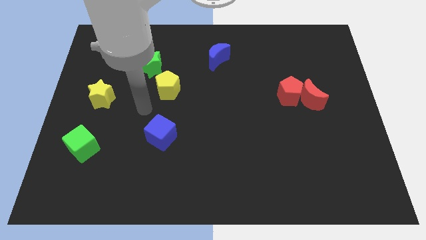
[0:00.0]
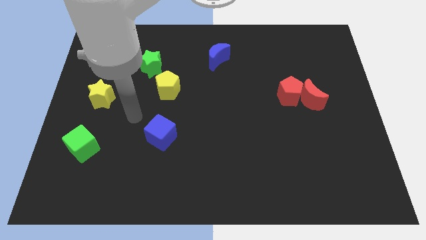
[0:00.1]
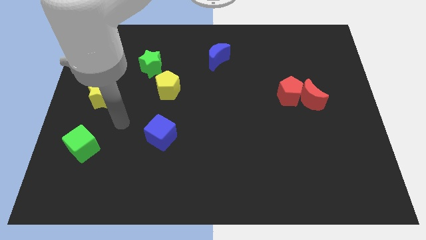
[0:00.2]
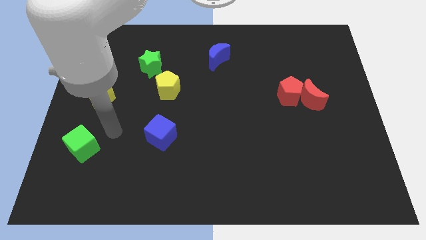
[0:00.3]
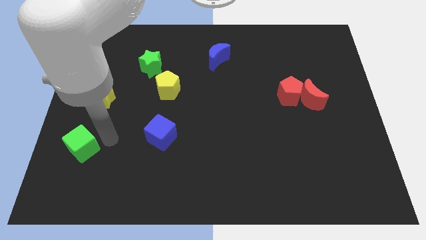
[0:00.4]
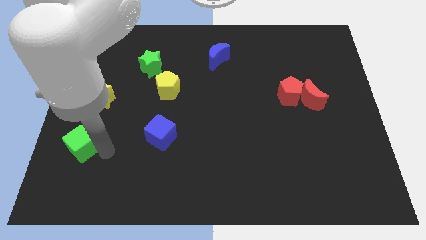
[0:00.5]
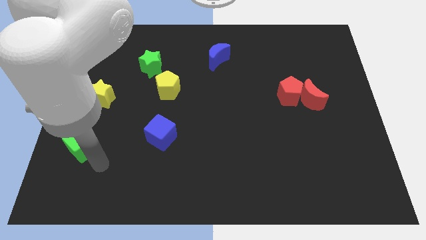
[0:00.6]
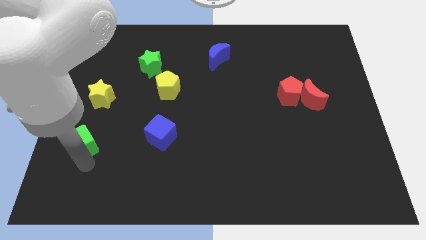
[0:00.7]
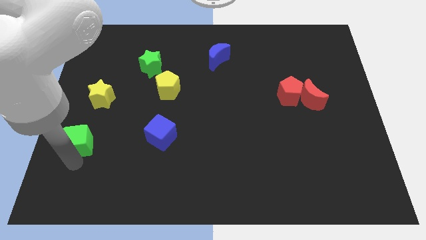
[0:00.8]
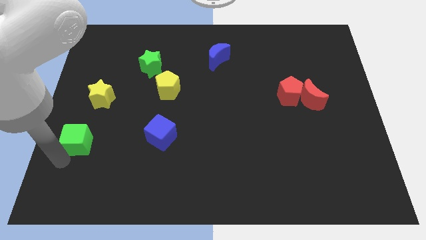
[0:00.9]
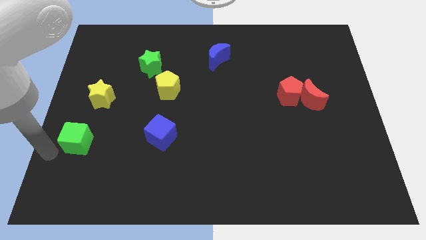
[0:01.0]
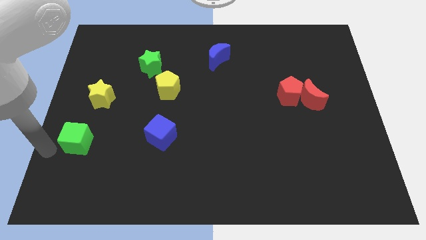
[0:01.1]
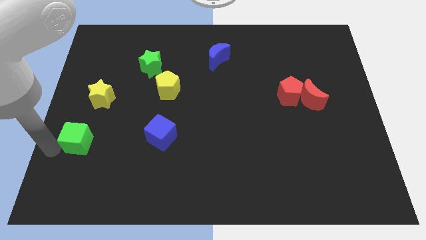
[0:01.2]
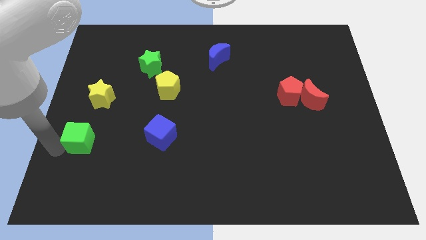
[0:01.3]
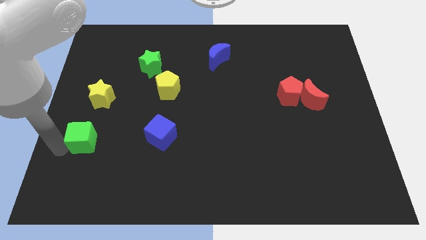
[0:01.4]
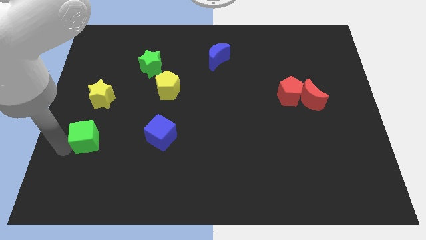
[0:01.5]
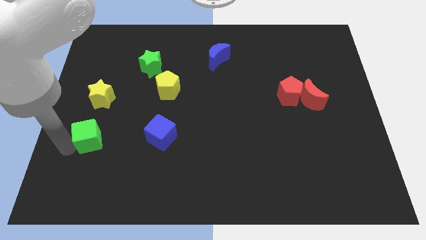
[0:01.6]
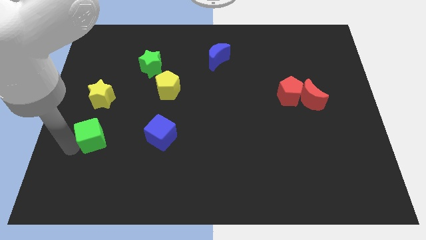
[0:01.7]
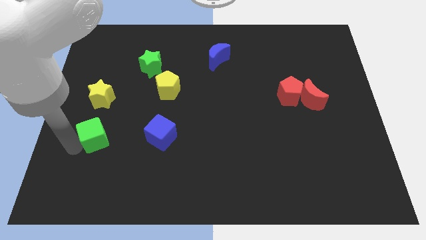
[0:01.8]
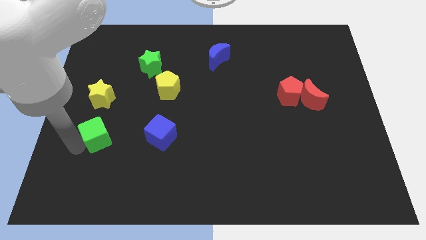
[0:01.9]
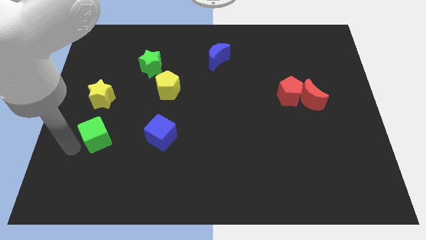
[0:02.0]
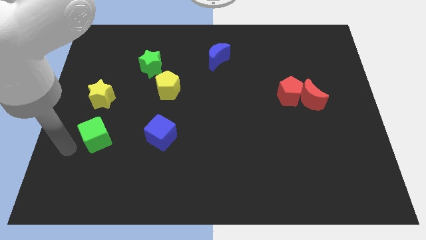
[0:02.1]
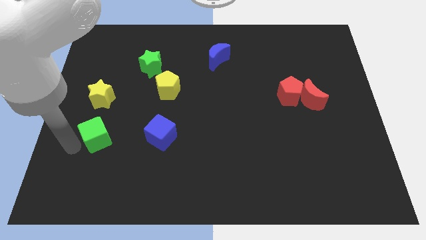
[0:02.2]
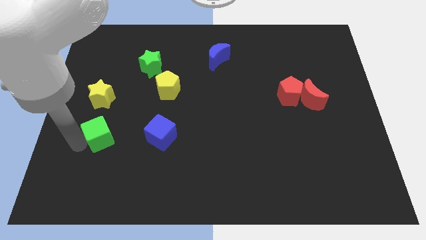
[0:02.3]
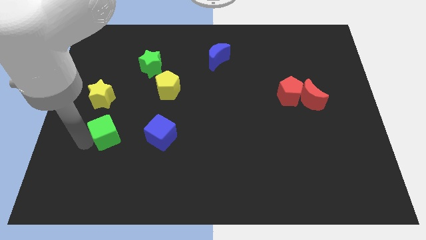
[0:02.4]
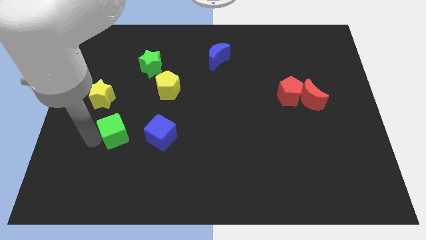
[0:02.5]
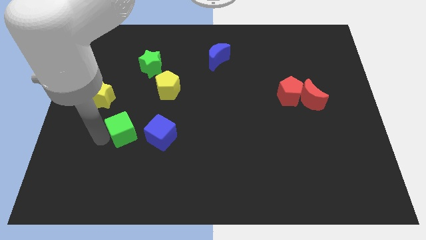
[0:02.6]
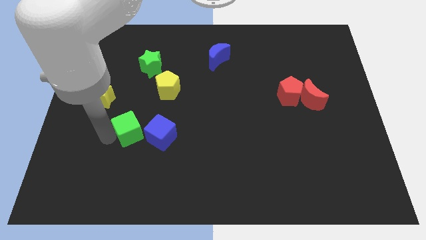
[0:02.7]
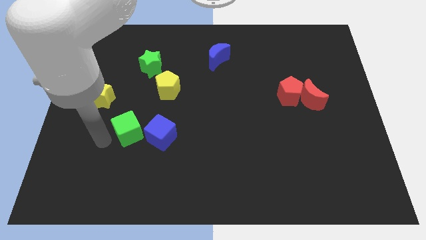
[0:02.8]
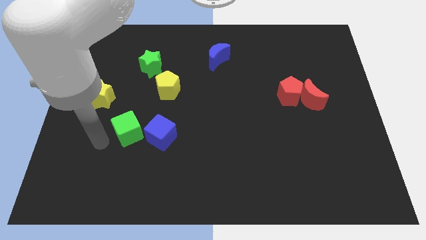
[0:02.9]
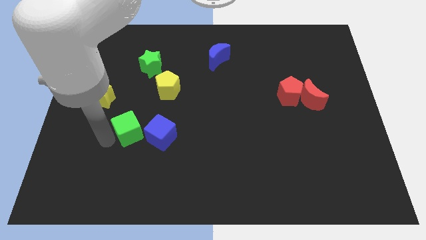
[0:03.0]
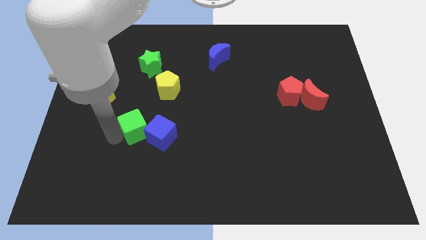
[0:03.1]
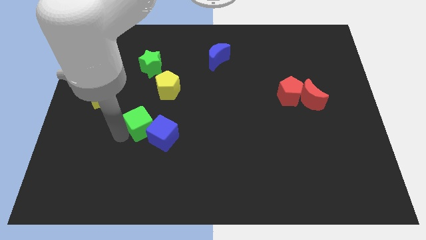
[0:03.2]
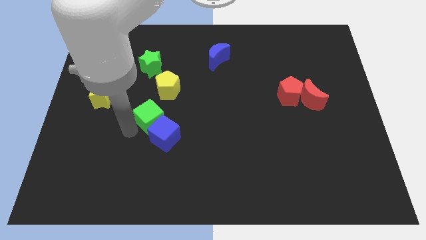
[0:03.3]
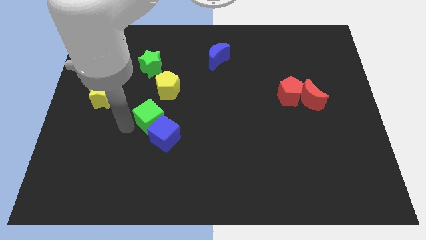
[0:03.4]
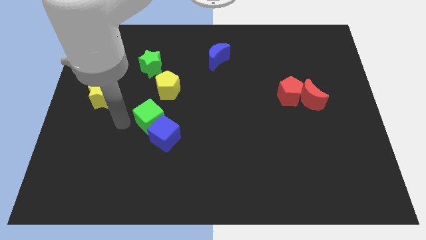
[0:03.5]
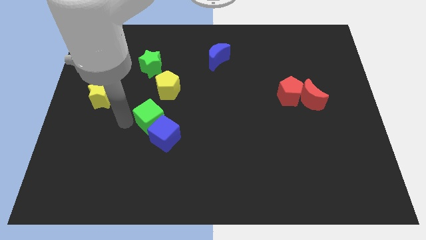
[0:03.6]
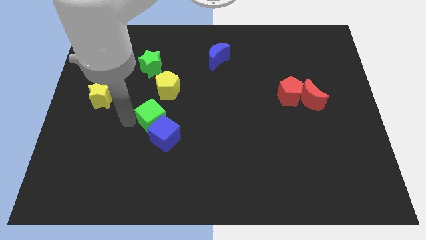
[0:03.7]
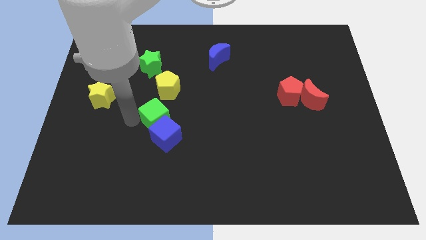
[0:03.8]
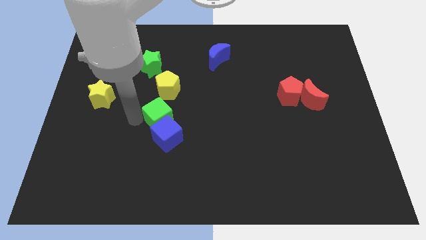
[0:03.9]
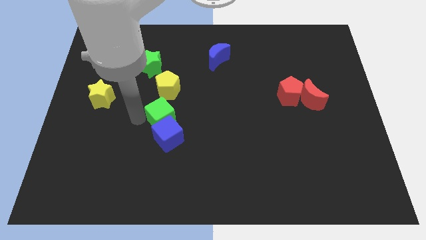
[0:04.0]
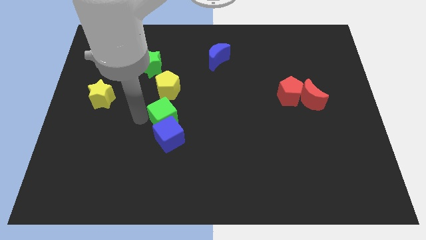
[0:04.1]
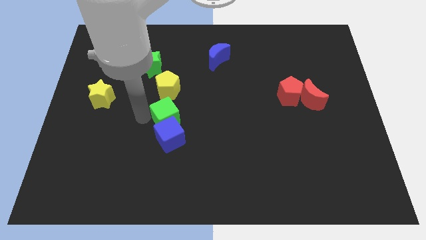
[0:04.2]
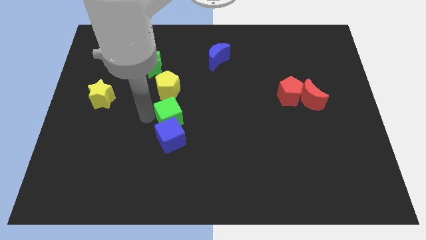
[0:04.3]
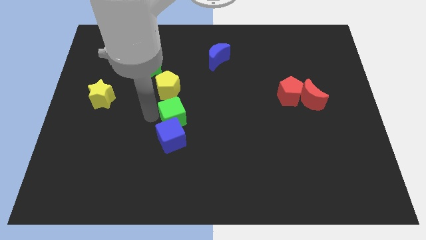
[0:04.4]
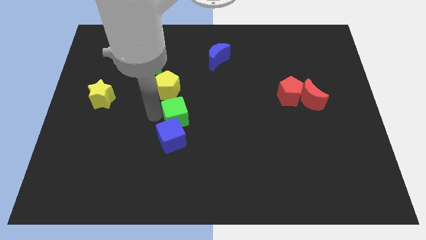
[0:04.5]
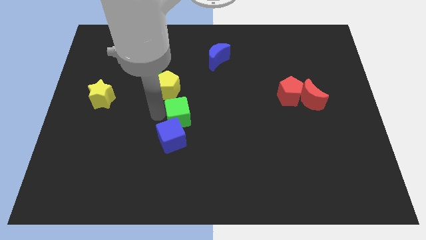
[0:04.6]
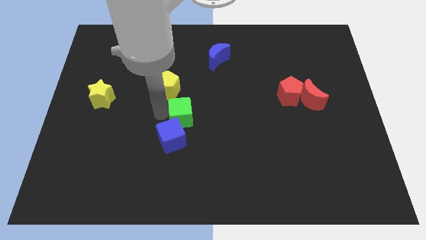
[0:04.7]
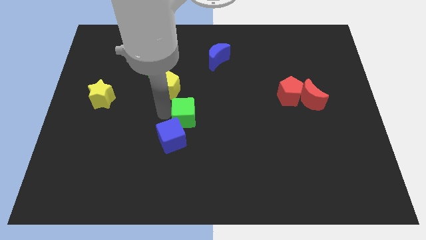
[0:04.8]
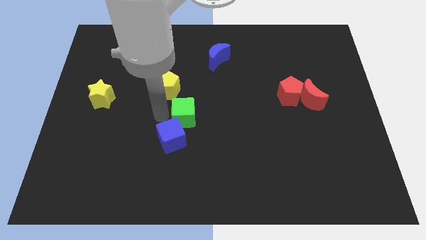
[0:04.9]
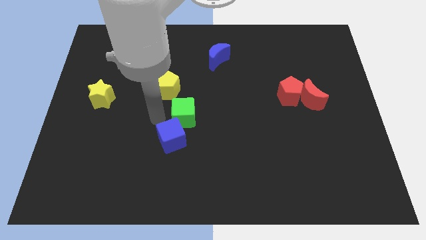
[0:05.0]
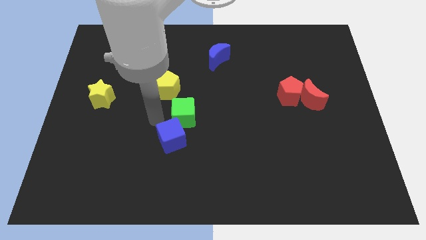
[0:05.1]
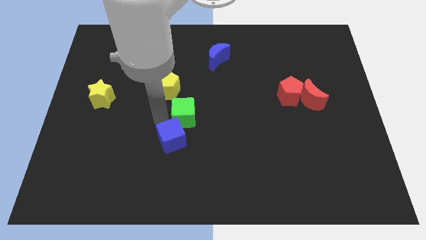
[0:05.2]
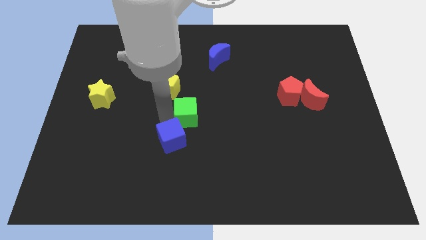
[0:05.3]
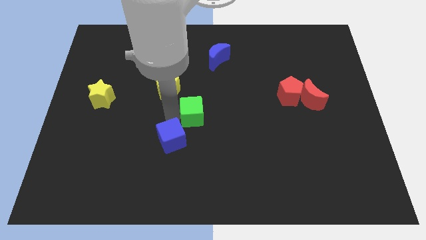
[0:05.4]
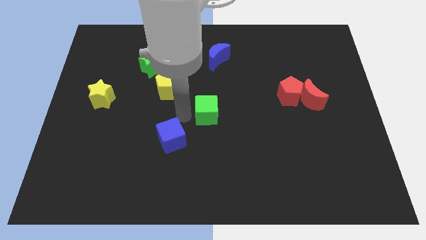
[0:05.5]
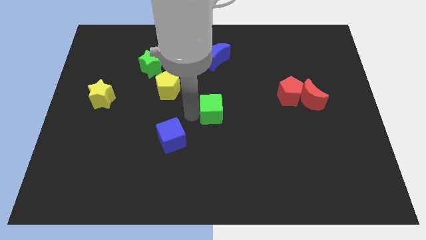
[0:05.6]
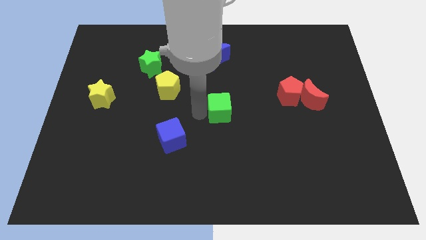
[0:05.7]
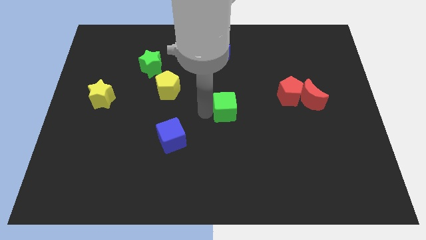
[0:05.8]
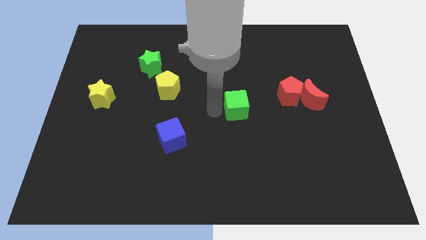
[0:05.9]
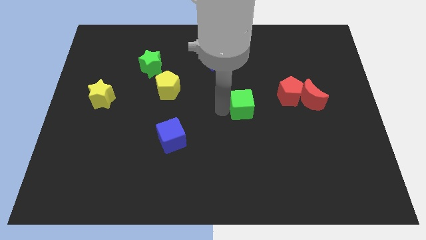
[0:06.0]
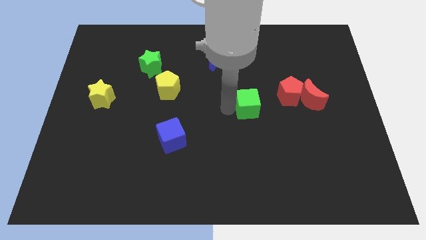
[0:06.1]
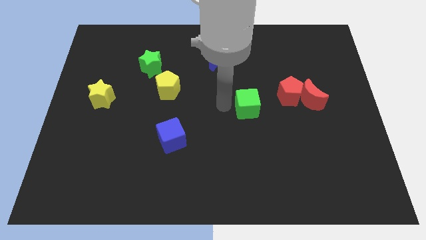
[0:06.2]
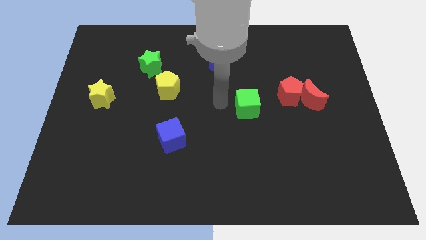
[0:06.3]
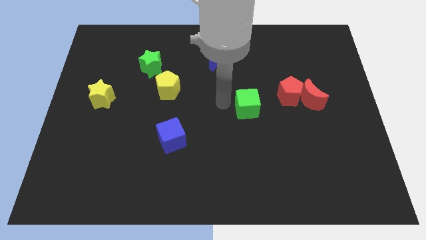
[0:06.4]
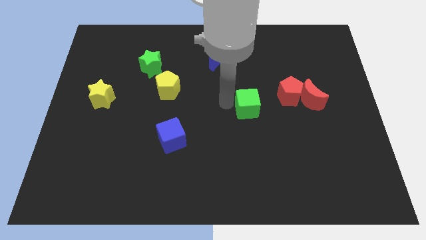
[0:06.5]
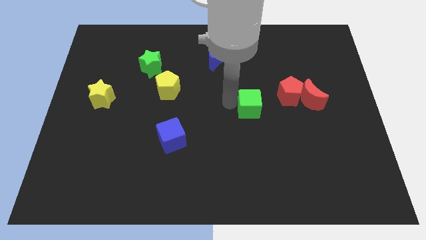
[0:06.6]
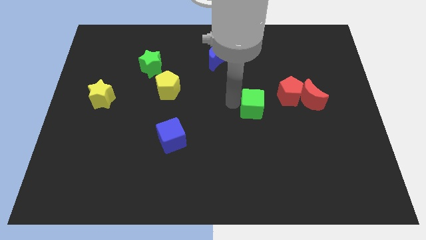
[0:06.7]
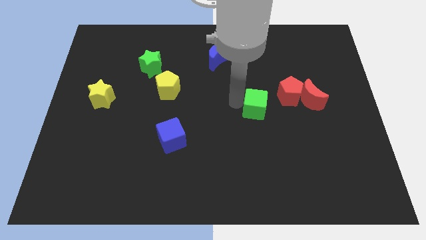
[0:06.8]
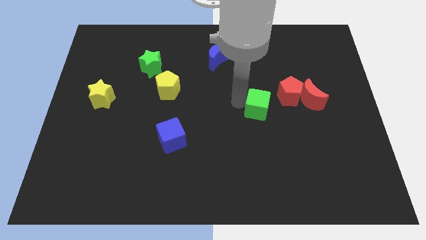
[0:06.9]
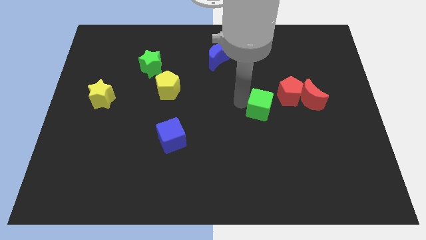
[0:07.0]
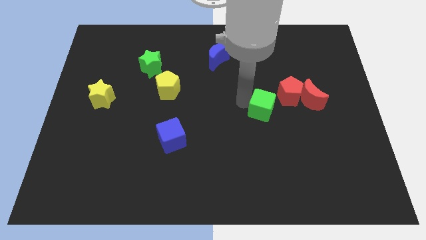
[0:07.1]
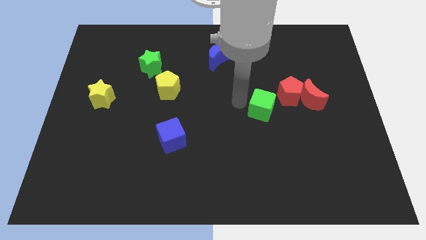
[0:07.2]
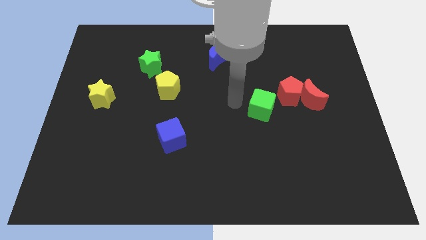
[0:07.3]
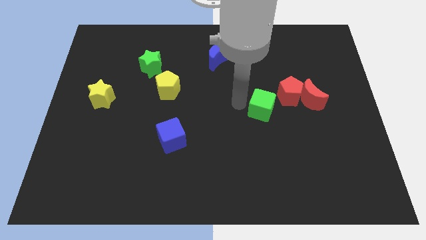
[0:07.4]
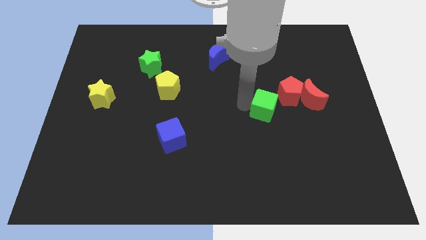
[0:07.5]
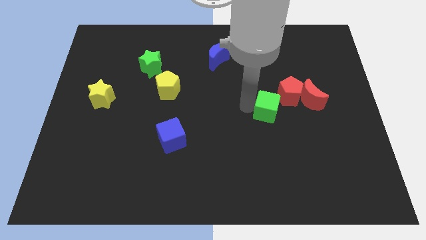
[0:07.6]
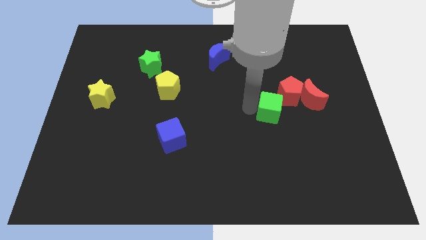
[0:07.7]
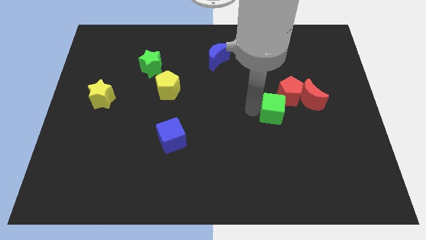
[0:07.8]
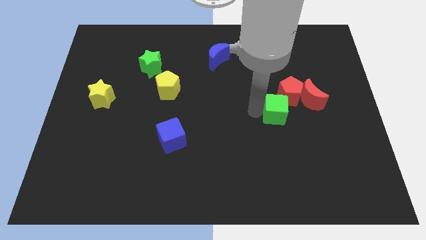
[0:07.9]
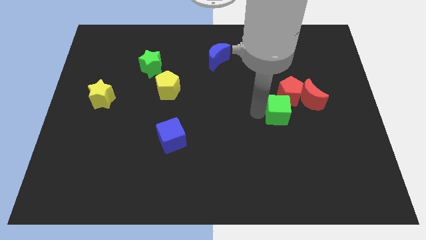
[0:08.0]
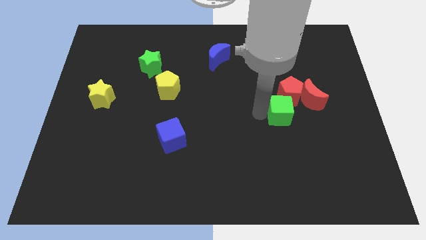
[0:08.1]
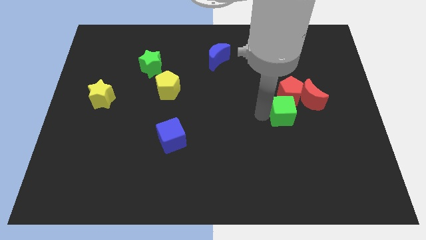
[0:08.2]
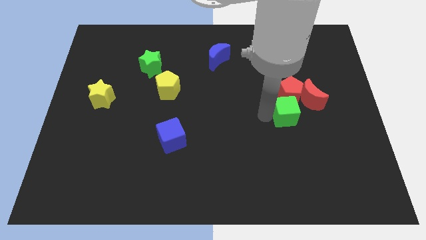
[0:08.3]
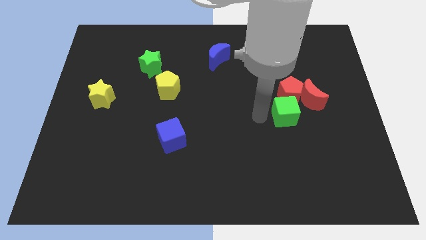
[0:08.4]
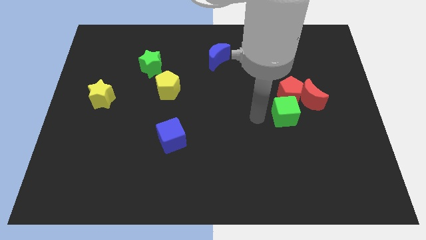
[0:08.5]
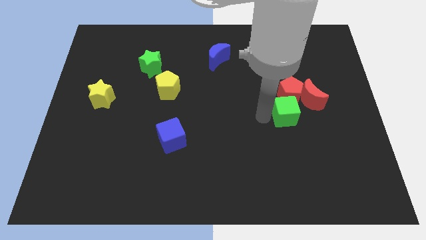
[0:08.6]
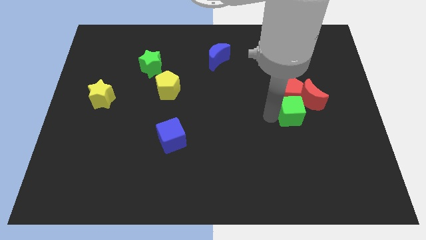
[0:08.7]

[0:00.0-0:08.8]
push the green cube to the bottom right side of the red pentagon
